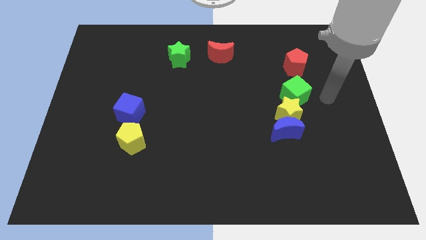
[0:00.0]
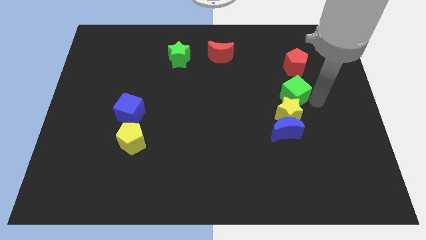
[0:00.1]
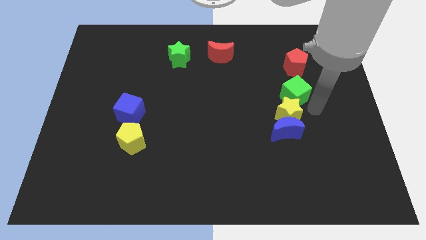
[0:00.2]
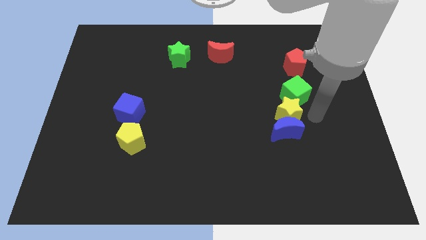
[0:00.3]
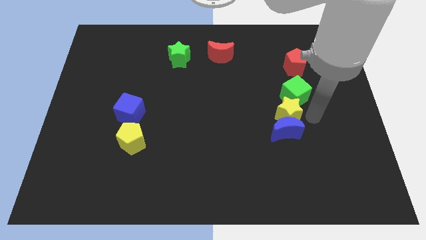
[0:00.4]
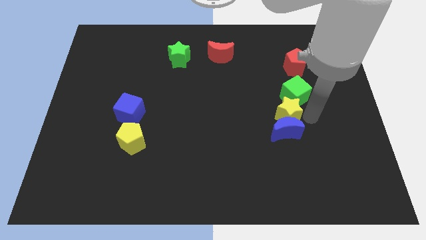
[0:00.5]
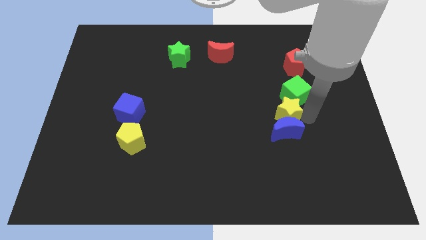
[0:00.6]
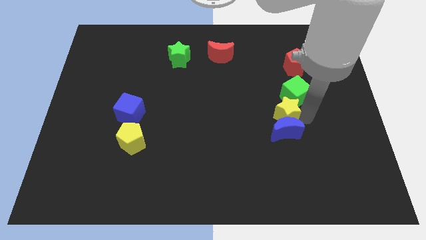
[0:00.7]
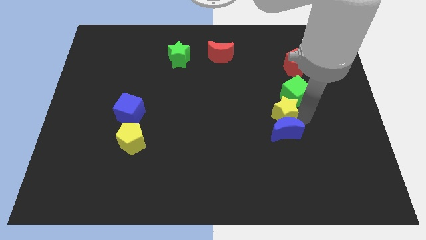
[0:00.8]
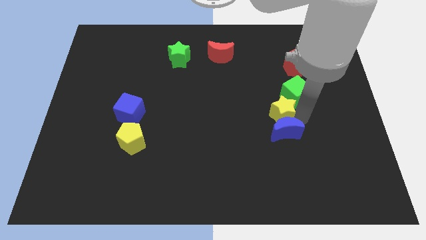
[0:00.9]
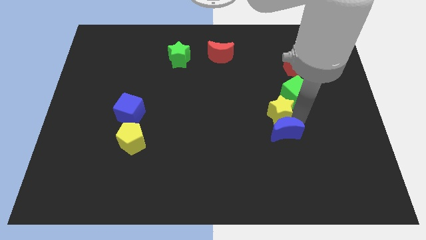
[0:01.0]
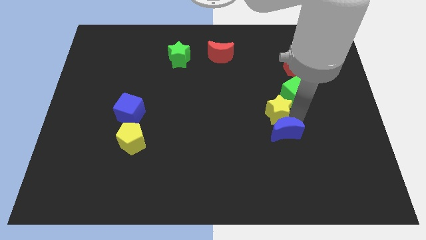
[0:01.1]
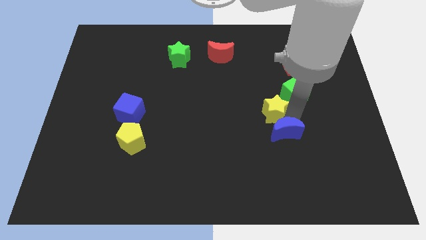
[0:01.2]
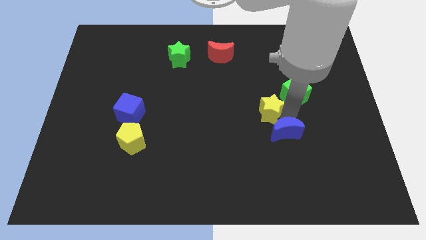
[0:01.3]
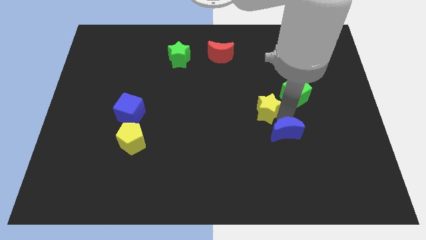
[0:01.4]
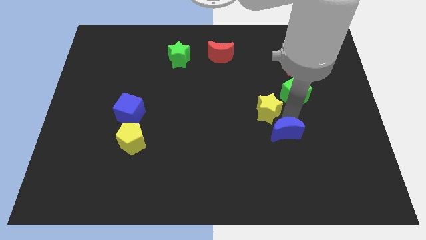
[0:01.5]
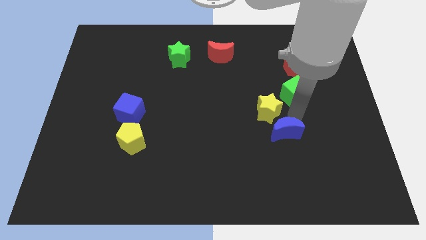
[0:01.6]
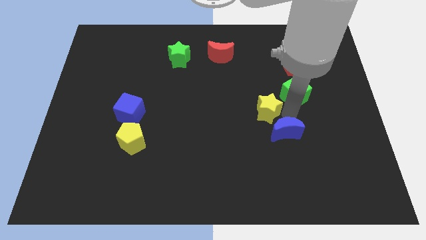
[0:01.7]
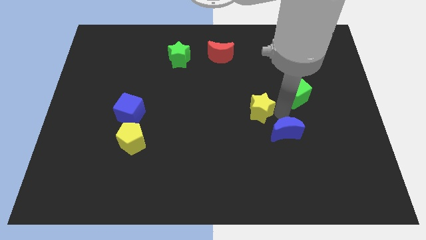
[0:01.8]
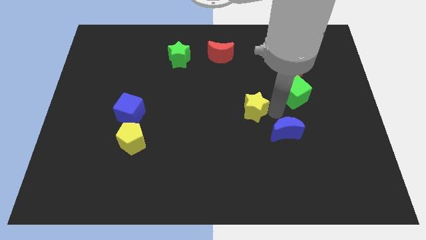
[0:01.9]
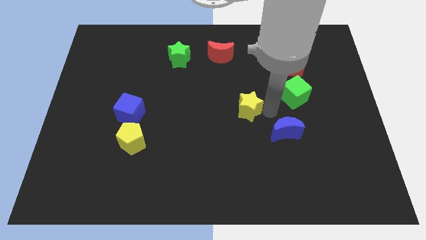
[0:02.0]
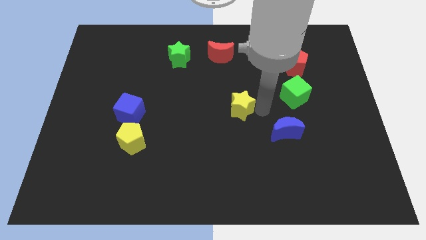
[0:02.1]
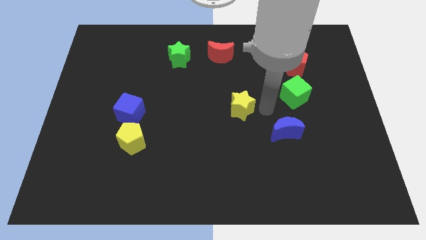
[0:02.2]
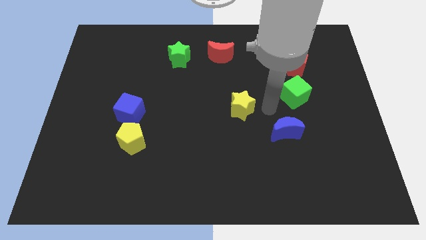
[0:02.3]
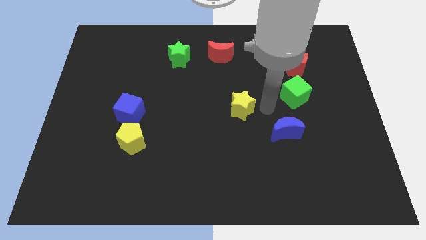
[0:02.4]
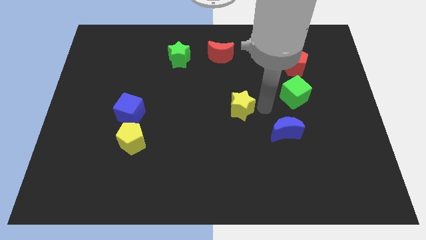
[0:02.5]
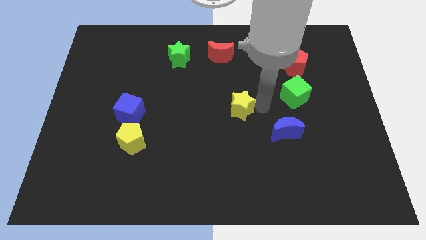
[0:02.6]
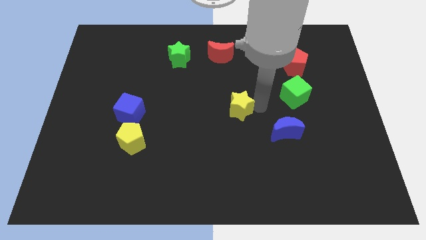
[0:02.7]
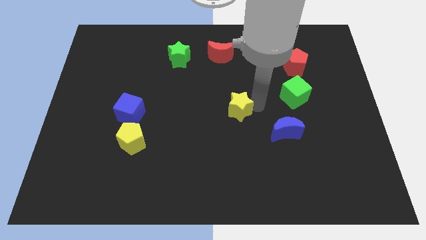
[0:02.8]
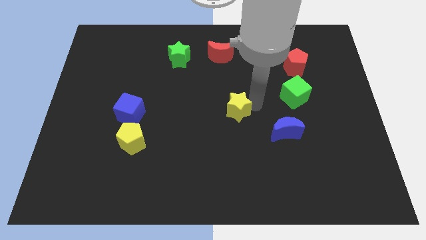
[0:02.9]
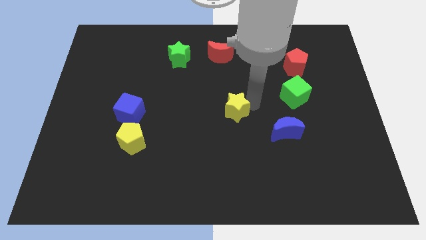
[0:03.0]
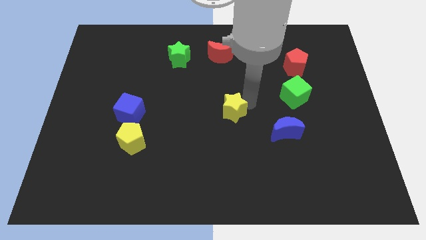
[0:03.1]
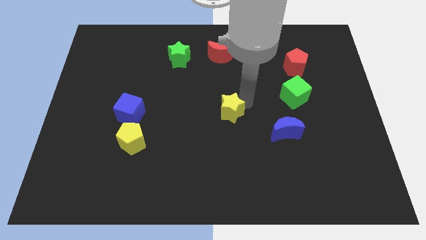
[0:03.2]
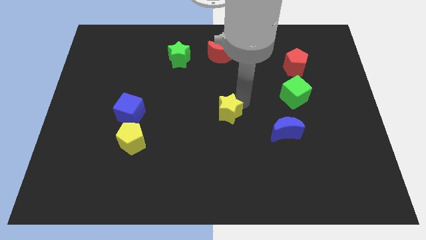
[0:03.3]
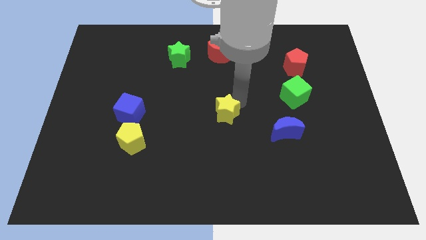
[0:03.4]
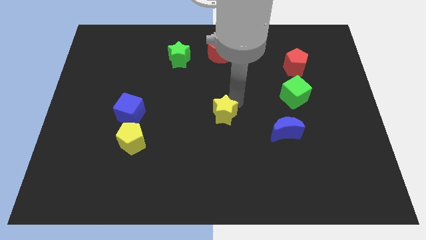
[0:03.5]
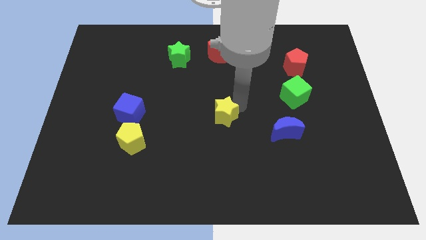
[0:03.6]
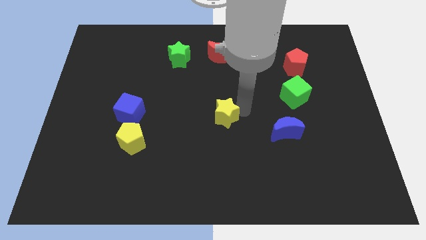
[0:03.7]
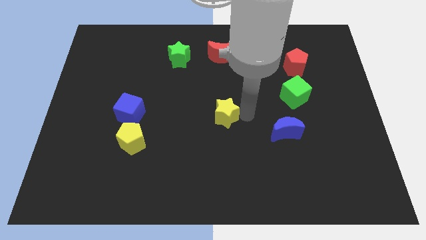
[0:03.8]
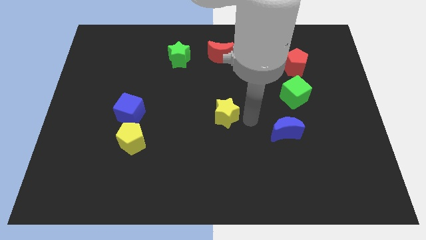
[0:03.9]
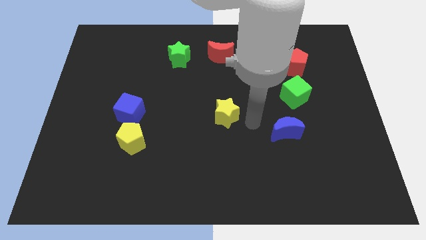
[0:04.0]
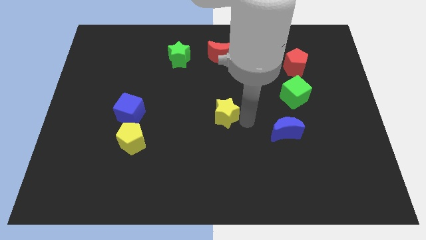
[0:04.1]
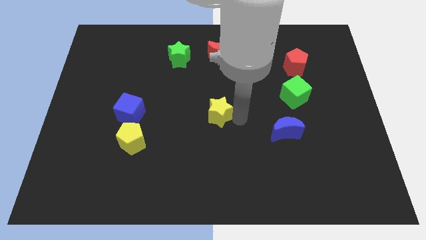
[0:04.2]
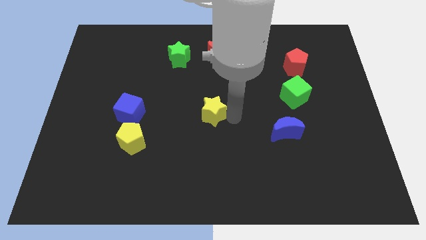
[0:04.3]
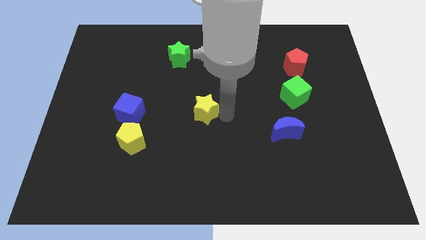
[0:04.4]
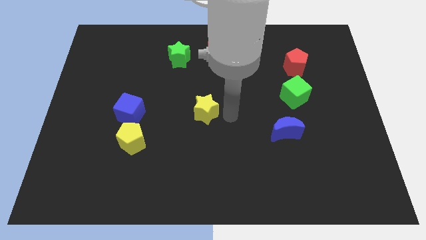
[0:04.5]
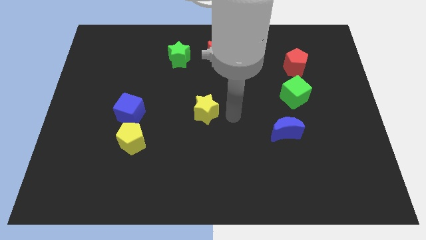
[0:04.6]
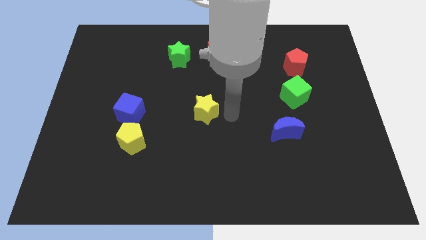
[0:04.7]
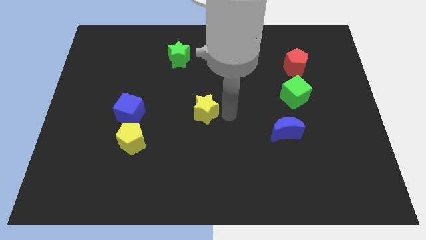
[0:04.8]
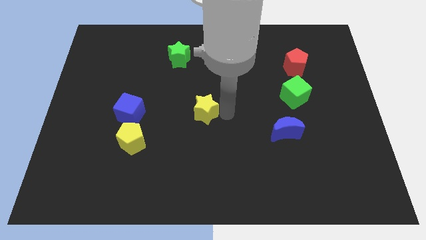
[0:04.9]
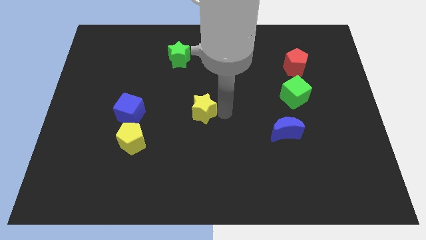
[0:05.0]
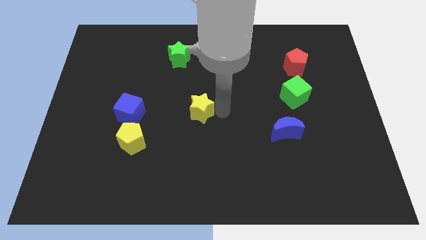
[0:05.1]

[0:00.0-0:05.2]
move the yellow star to the left

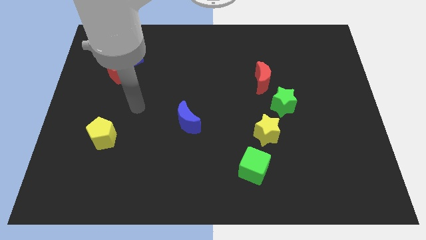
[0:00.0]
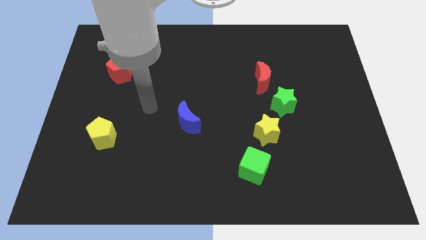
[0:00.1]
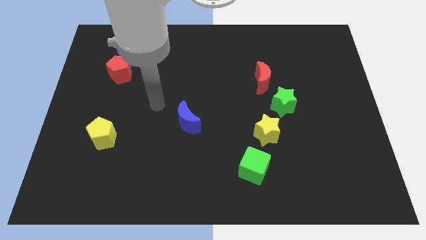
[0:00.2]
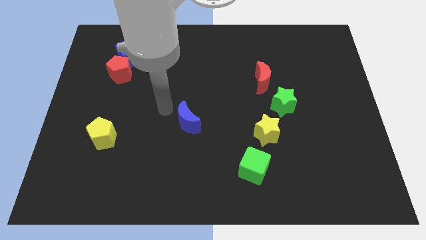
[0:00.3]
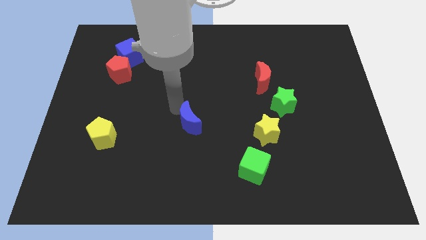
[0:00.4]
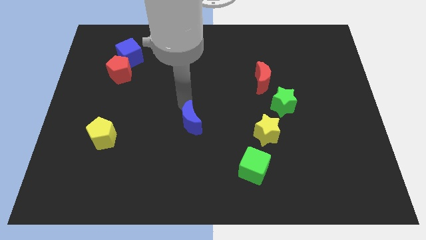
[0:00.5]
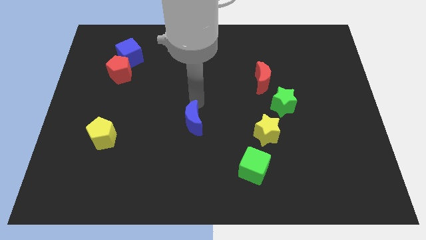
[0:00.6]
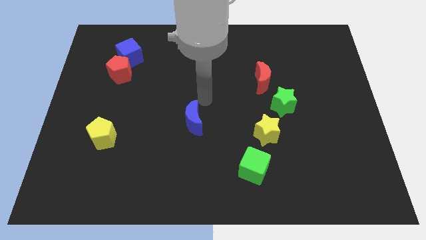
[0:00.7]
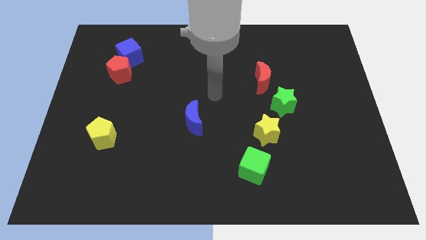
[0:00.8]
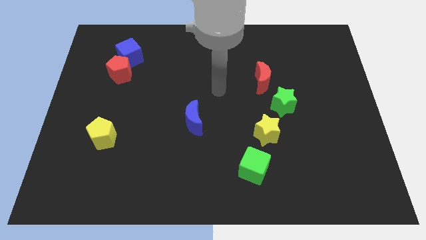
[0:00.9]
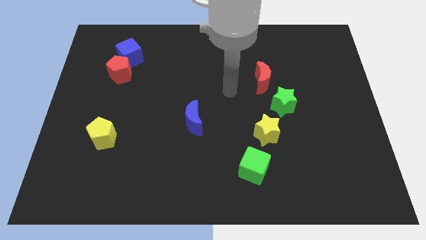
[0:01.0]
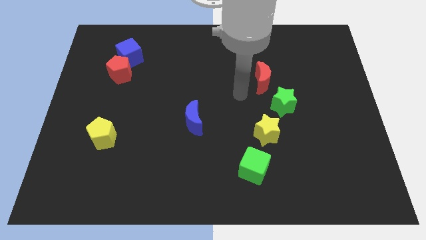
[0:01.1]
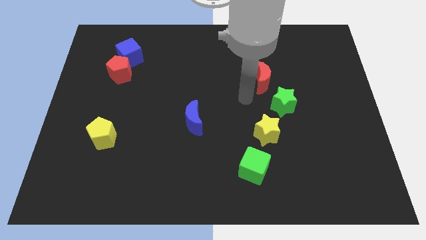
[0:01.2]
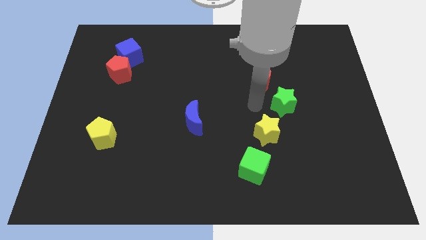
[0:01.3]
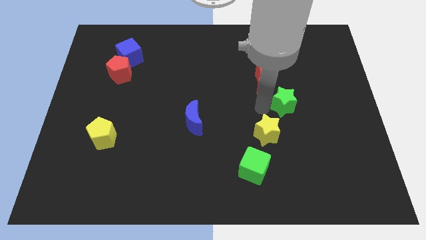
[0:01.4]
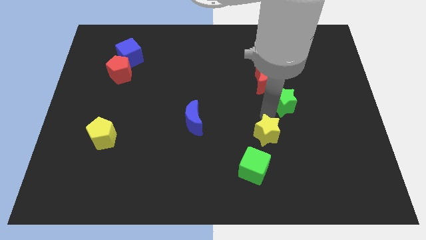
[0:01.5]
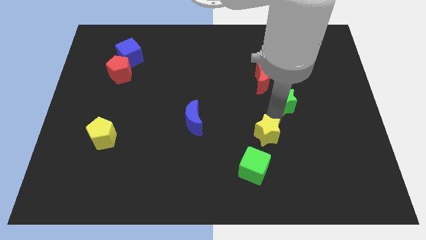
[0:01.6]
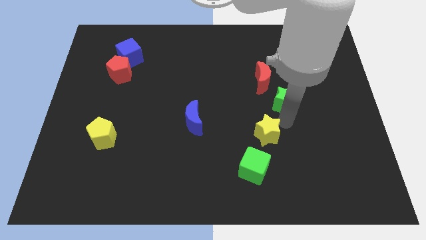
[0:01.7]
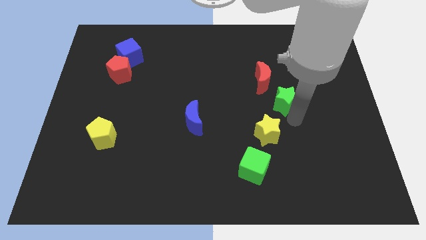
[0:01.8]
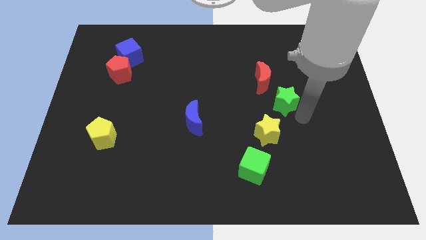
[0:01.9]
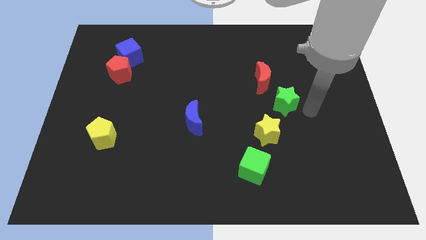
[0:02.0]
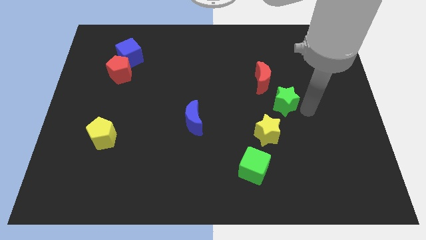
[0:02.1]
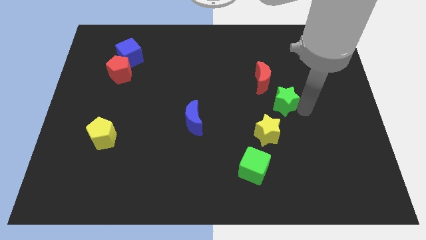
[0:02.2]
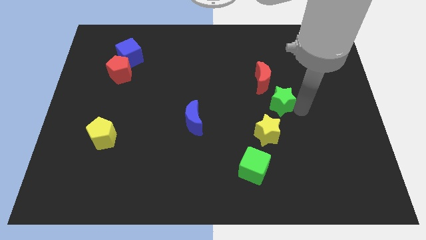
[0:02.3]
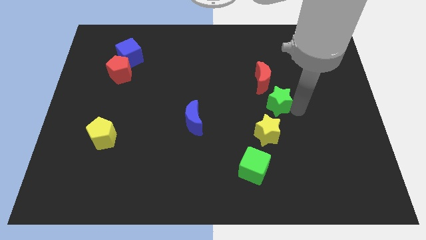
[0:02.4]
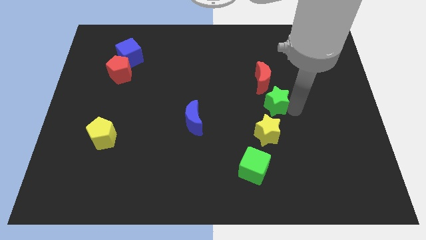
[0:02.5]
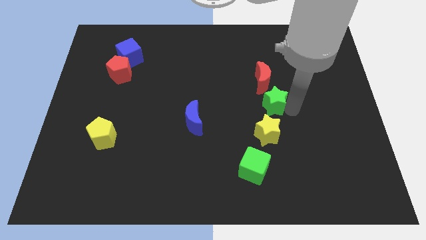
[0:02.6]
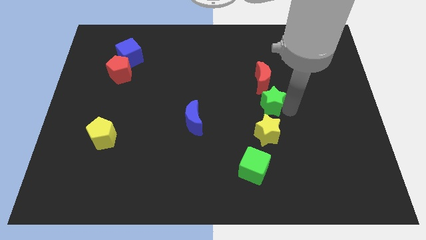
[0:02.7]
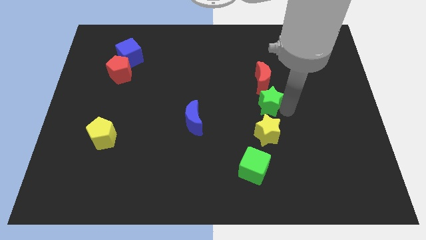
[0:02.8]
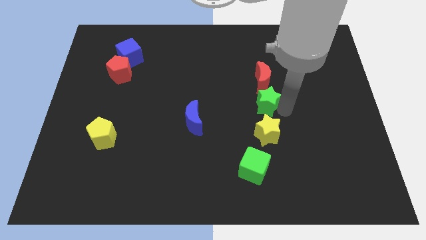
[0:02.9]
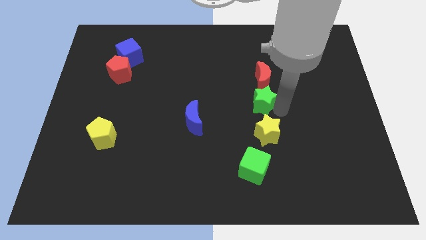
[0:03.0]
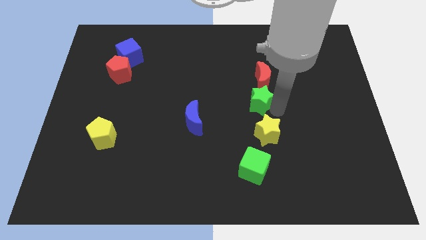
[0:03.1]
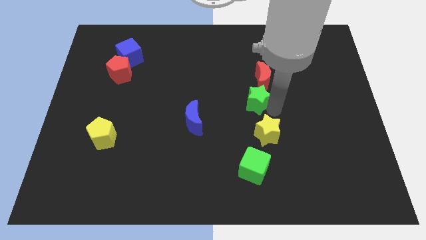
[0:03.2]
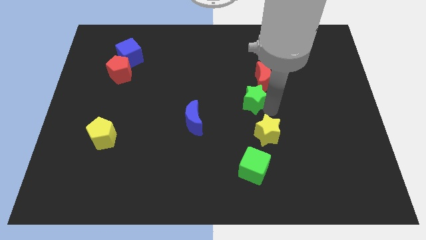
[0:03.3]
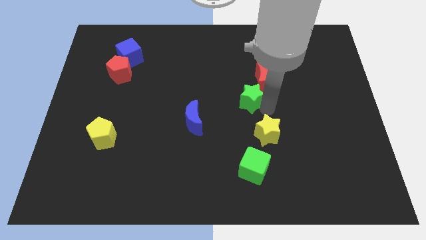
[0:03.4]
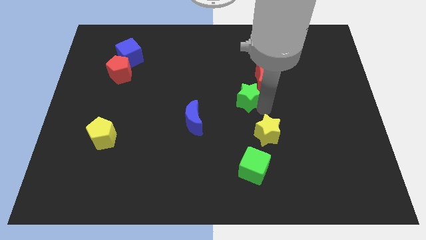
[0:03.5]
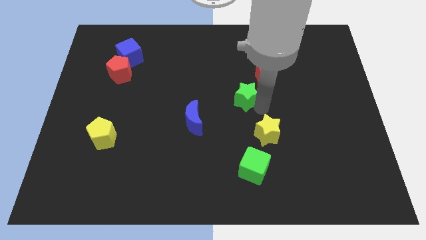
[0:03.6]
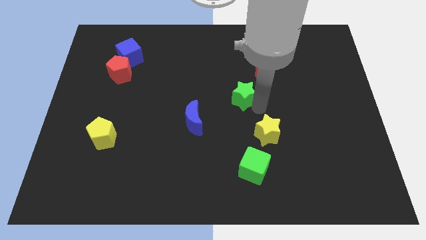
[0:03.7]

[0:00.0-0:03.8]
slide the green star slightly diagonally up and to the left
